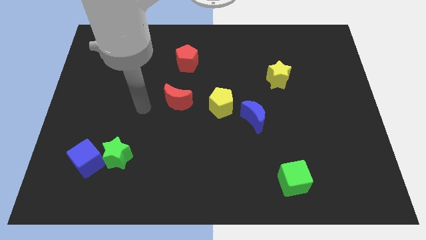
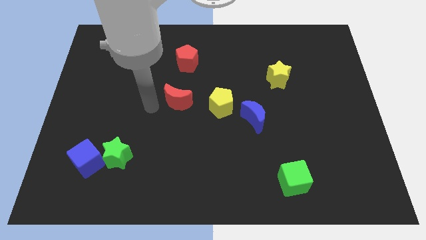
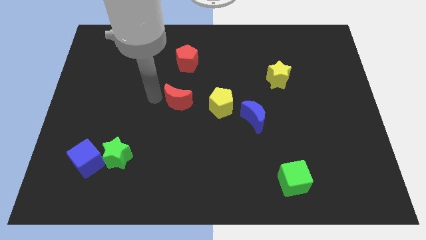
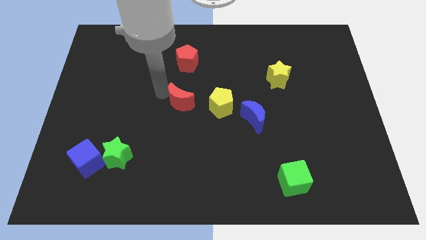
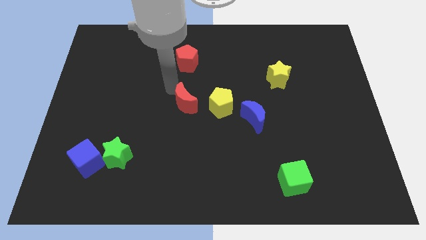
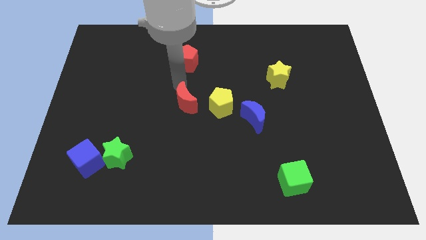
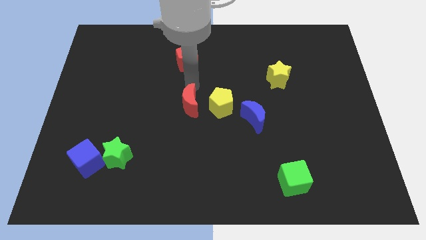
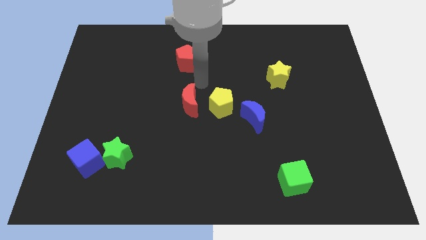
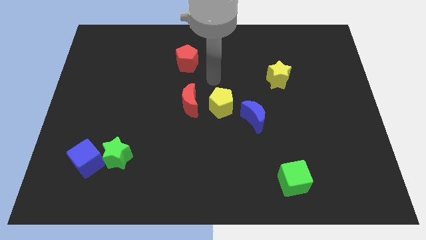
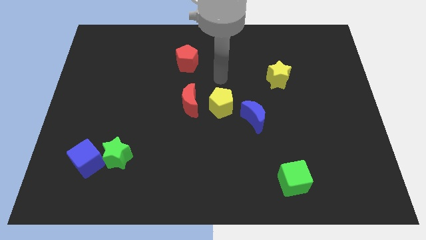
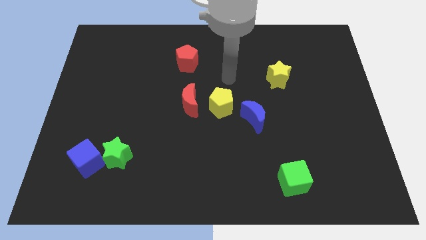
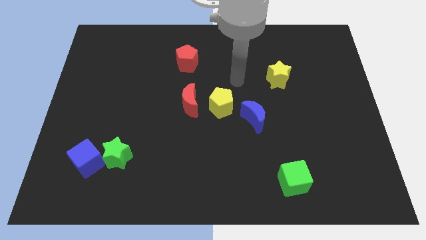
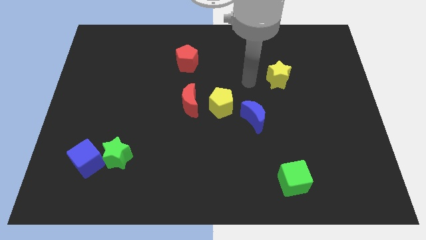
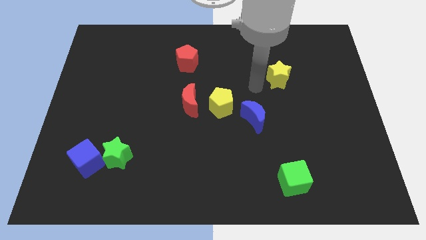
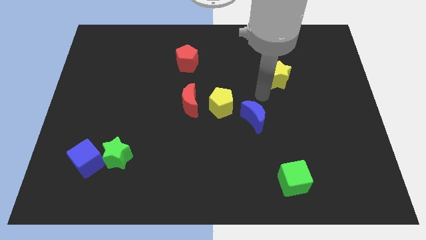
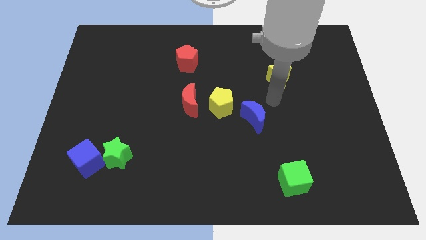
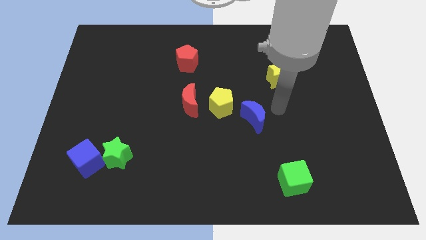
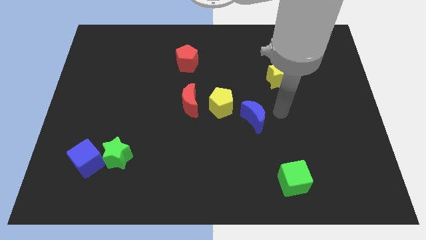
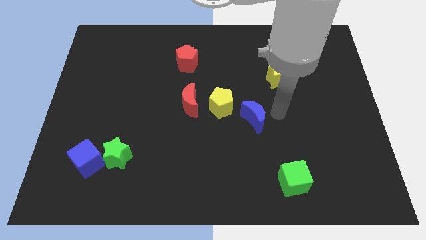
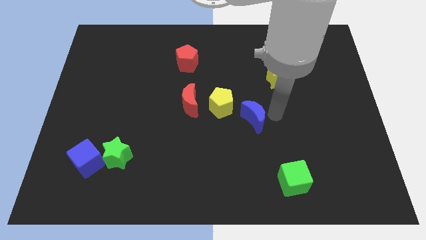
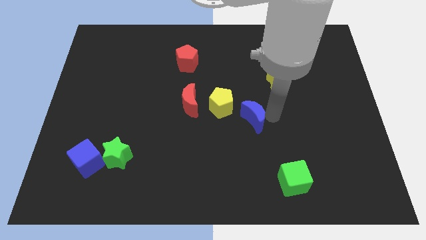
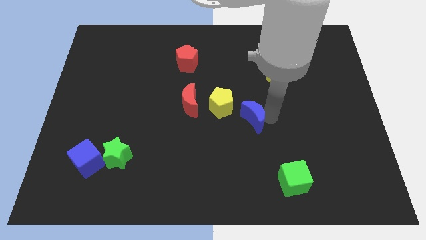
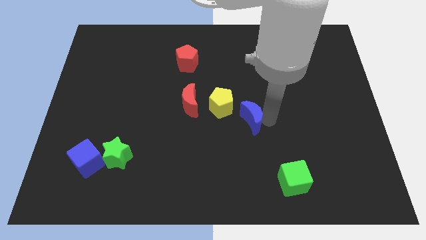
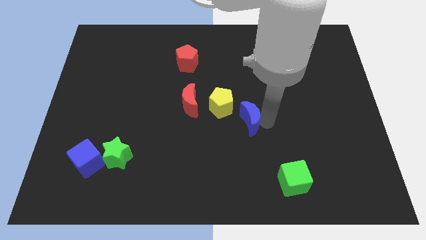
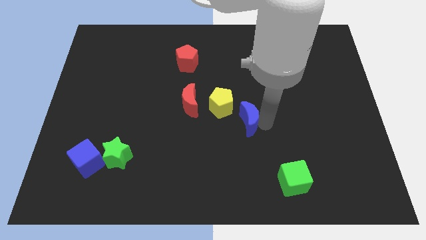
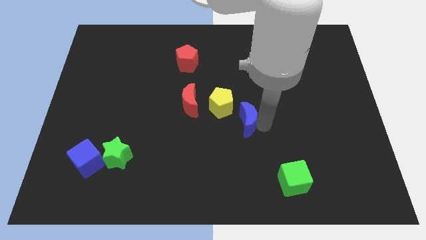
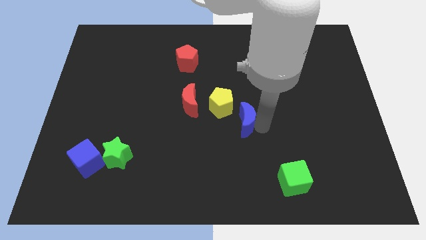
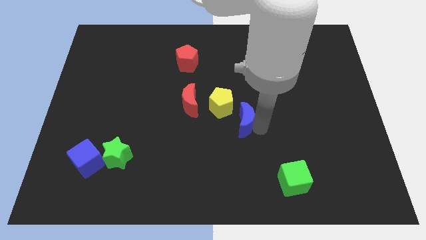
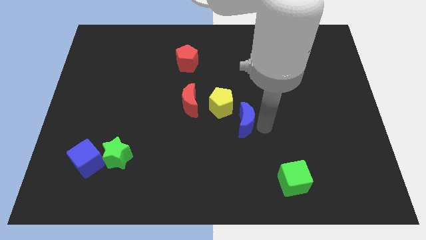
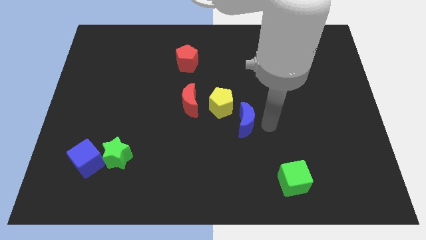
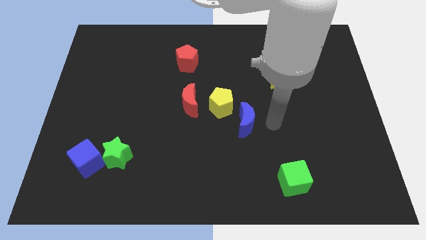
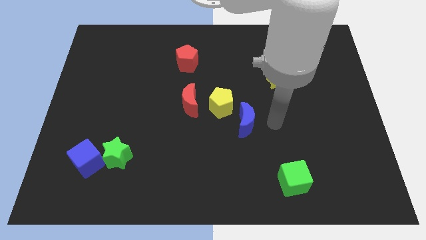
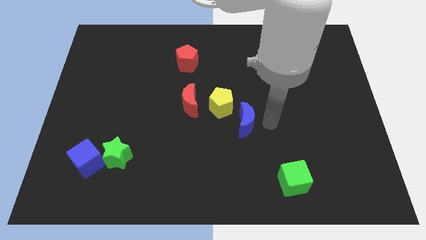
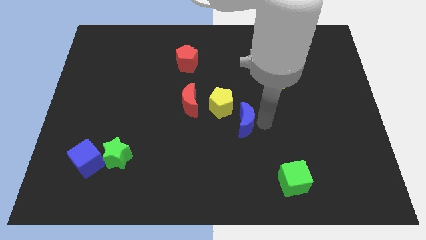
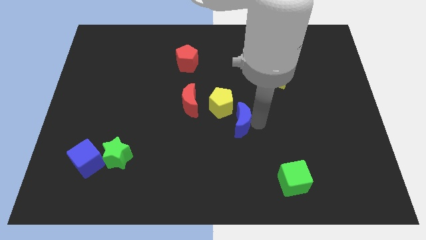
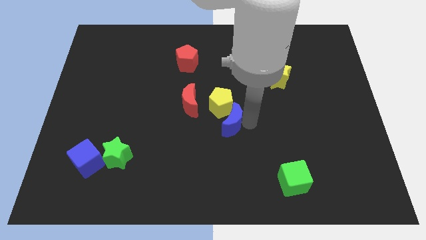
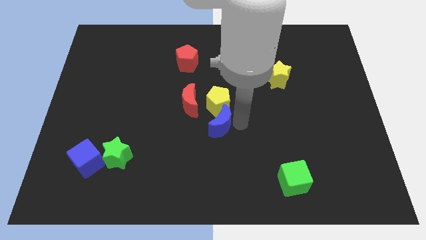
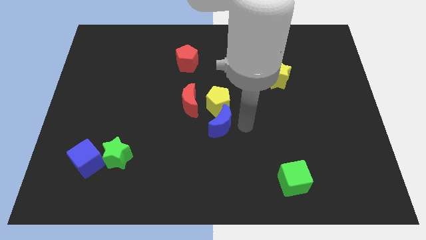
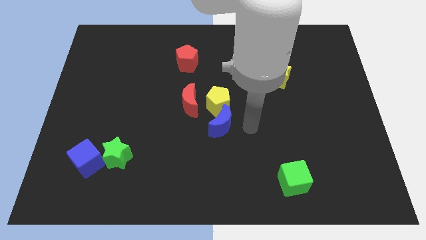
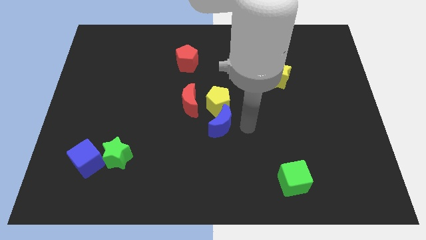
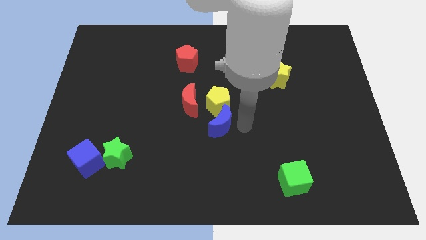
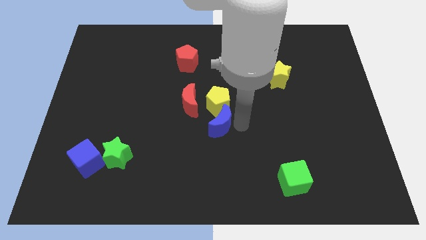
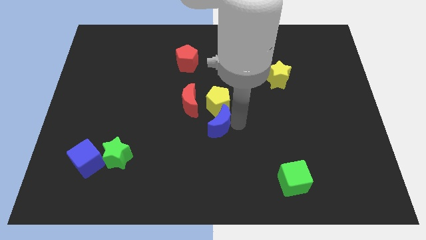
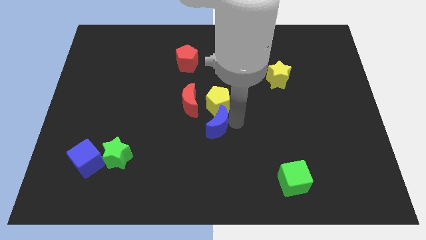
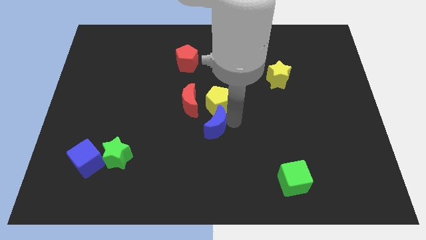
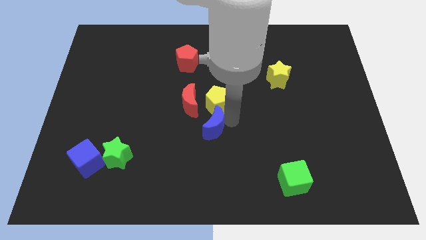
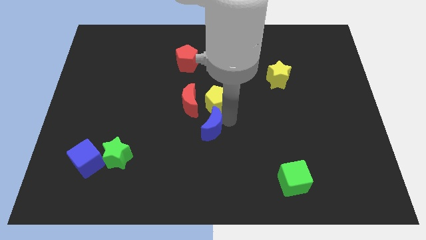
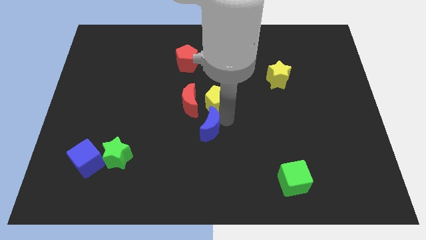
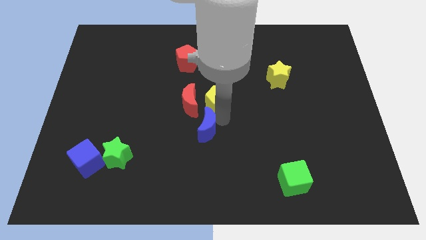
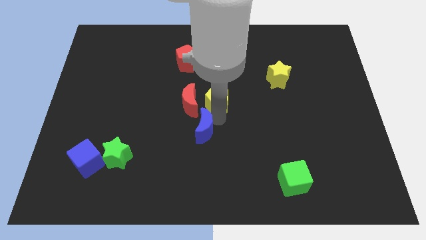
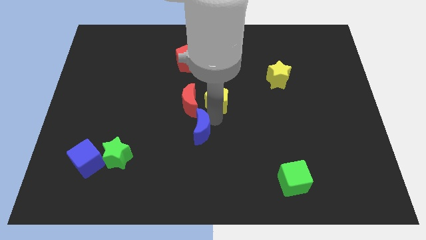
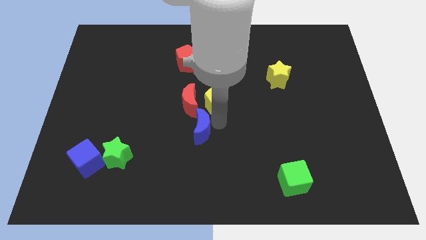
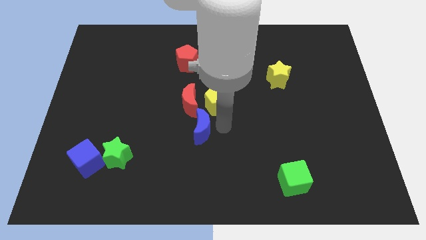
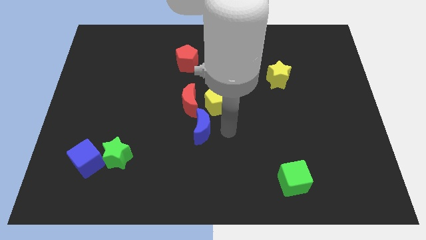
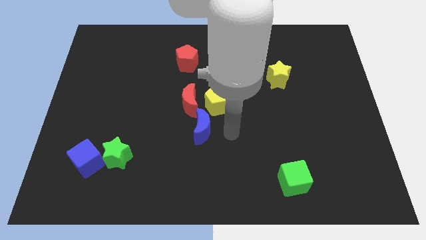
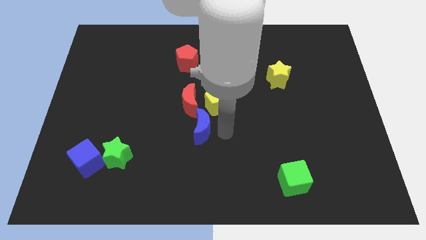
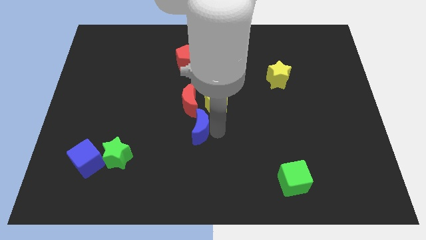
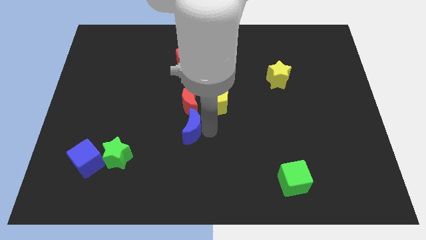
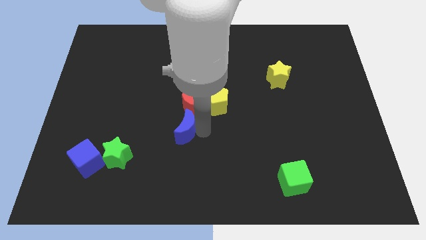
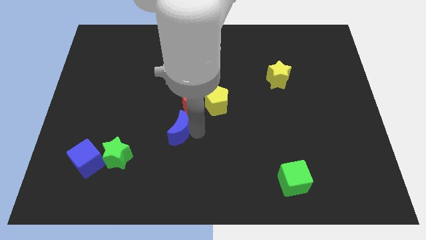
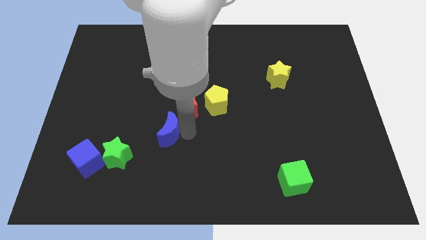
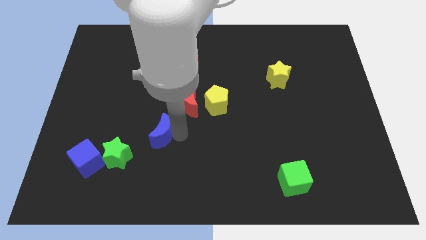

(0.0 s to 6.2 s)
move the blue moon left

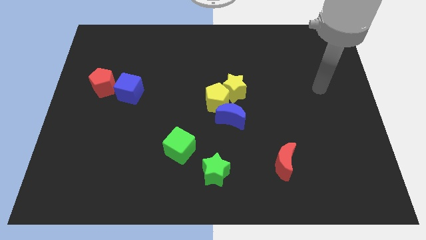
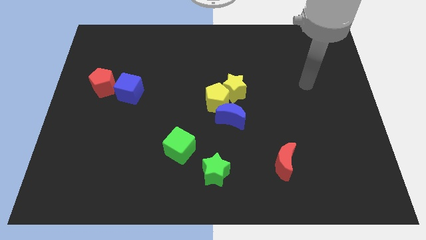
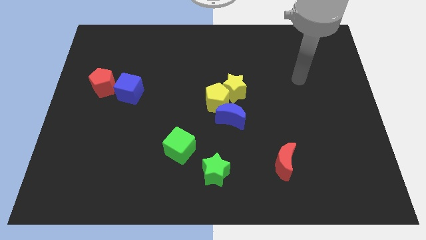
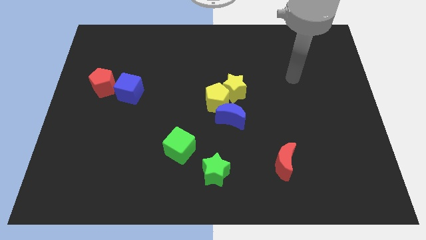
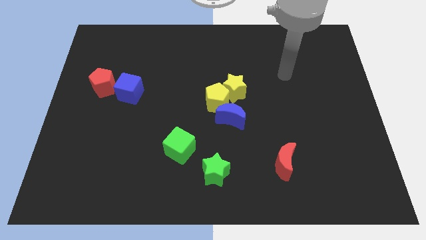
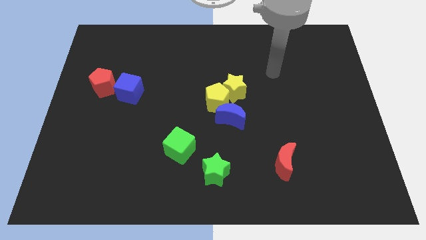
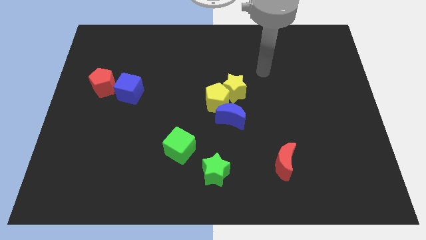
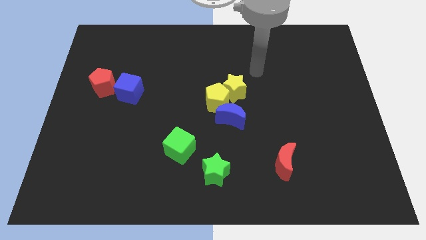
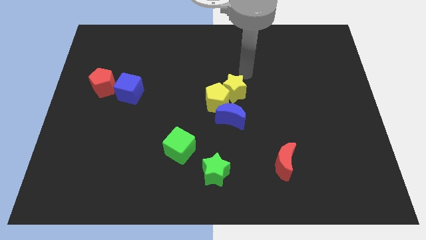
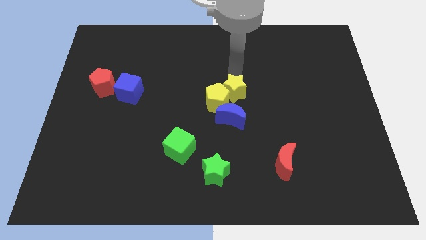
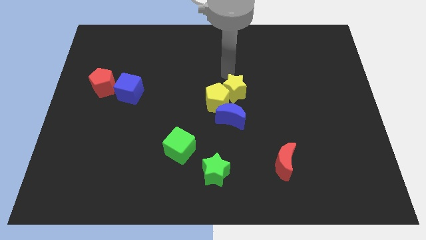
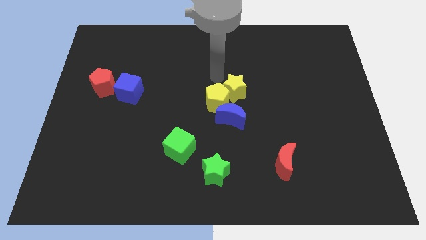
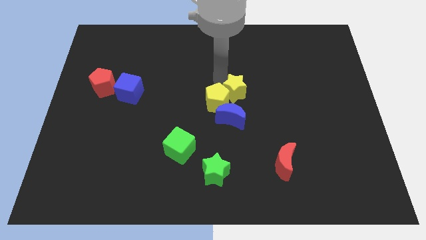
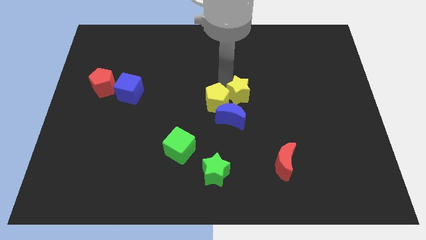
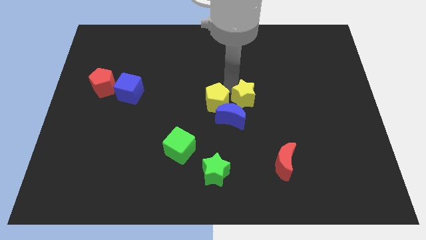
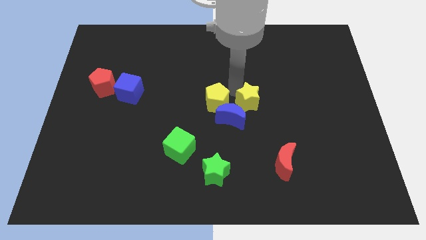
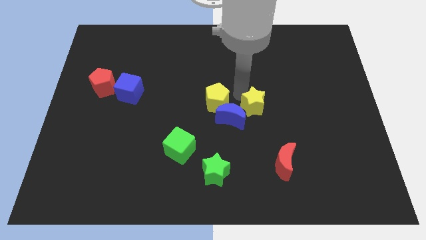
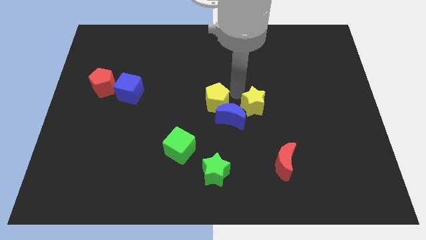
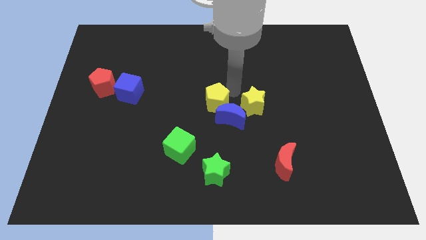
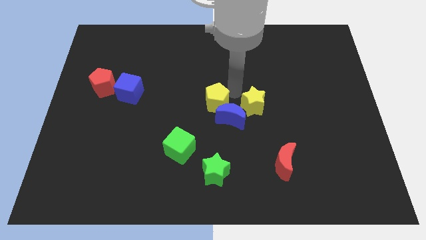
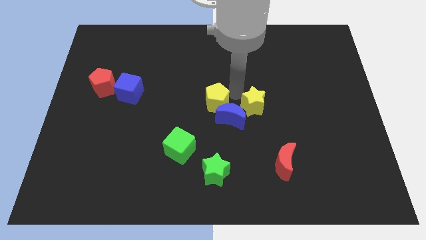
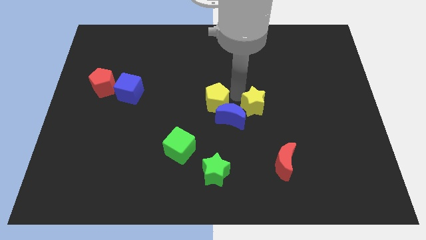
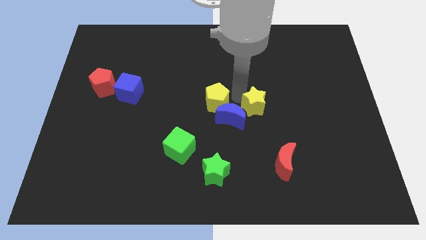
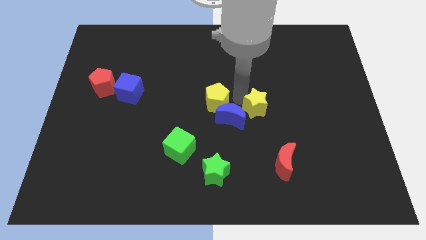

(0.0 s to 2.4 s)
push the yellow star diagonally downwards and right a little
